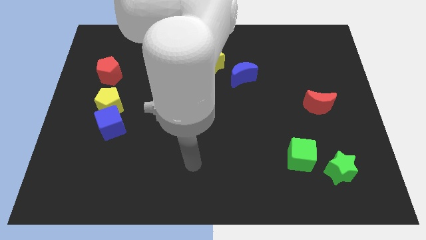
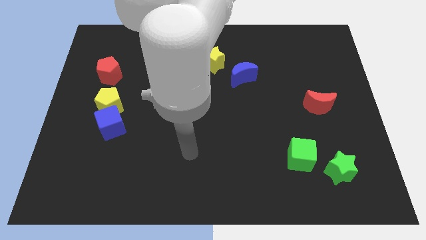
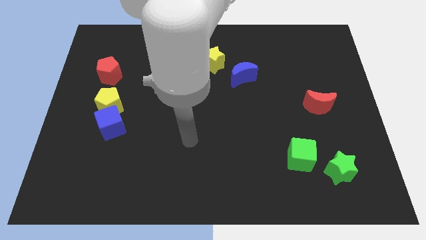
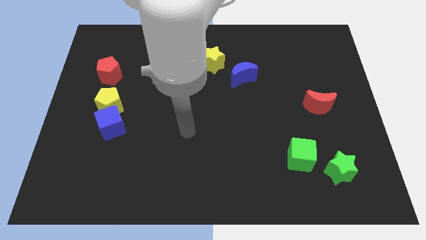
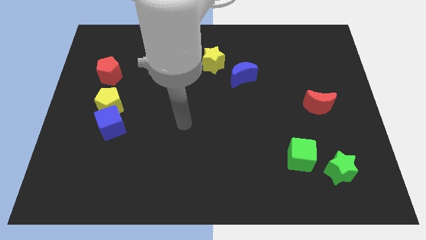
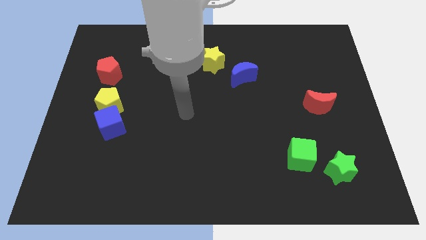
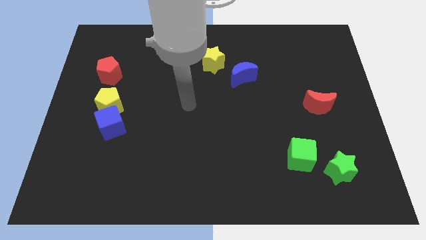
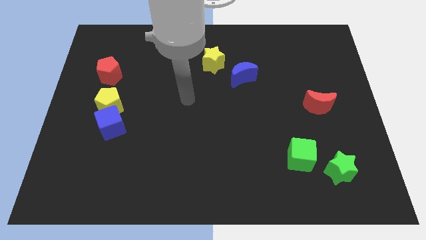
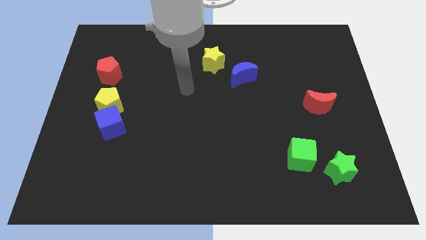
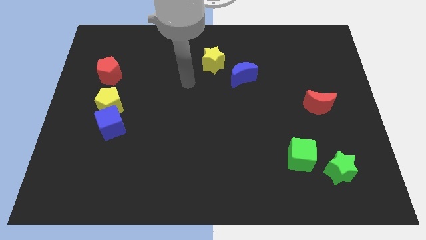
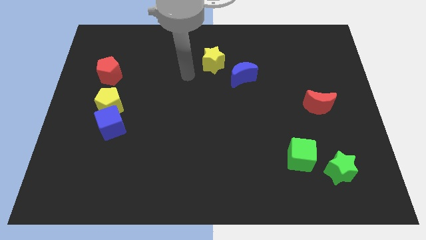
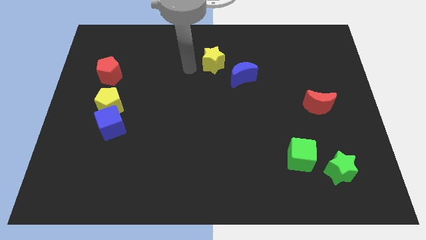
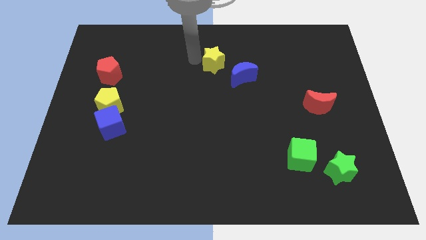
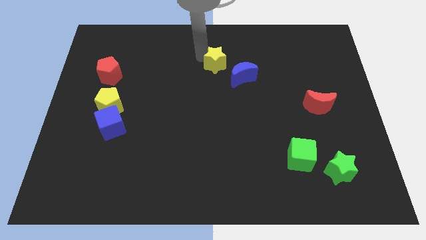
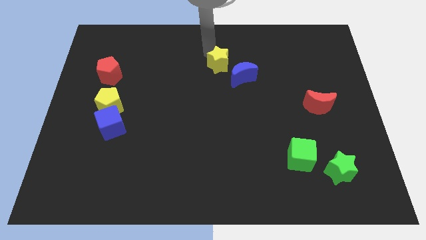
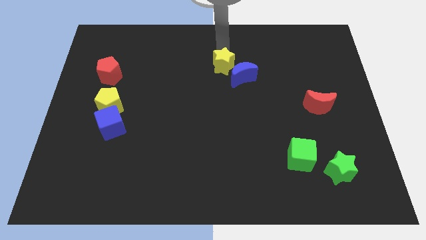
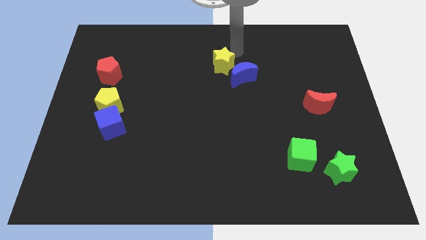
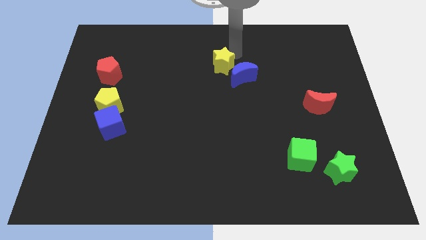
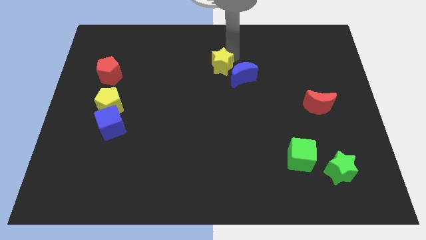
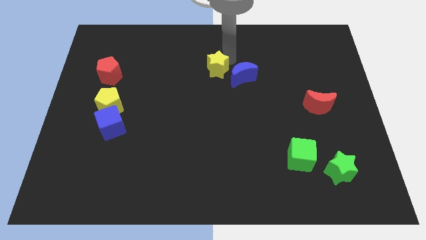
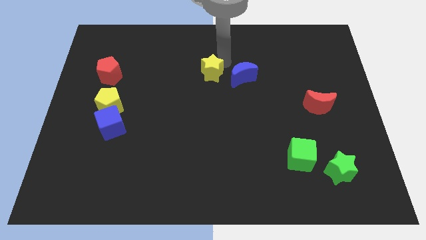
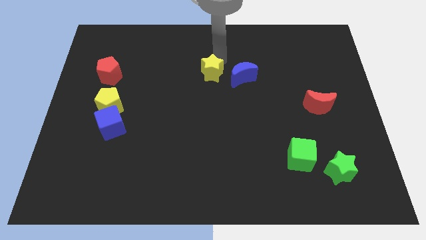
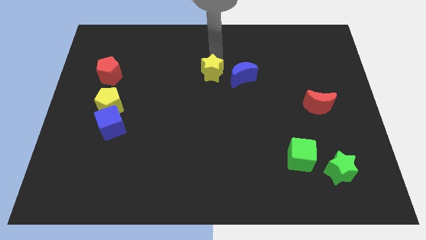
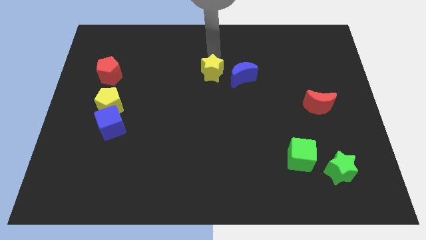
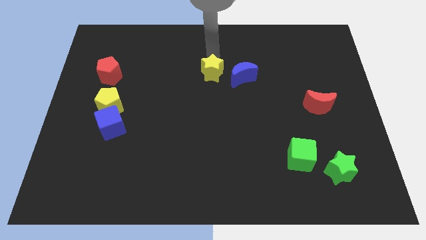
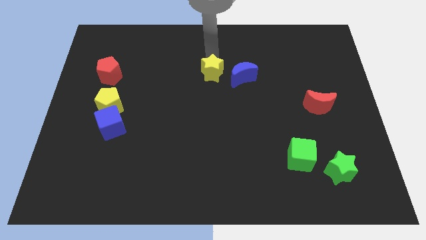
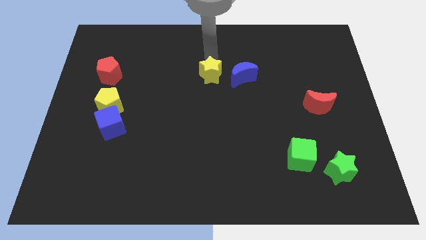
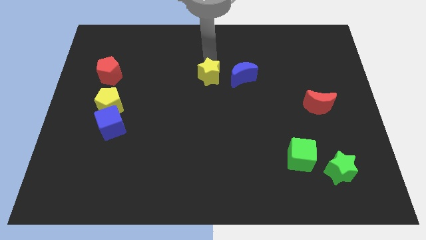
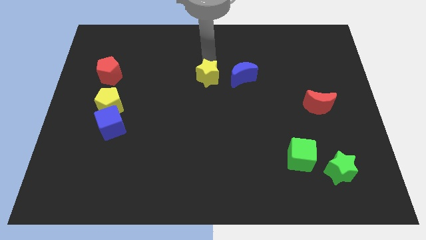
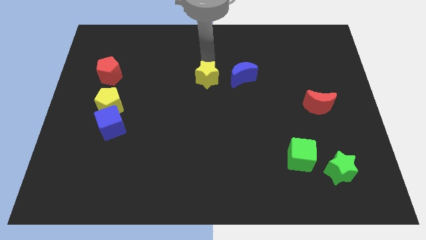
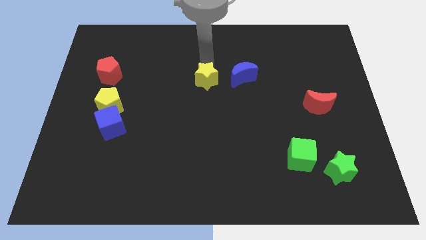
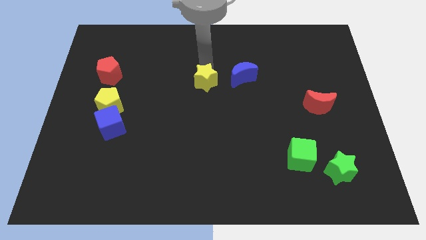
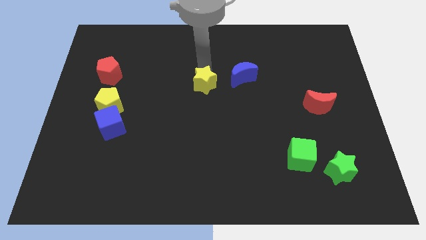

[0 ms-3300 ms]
slide the yellow star somewhat down

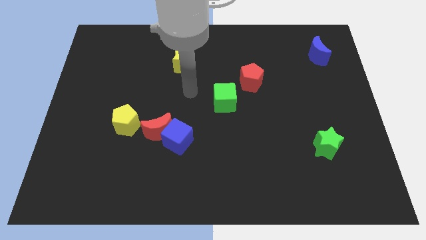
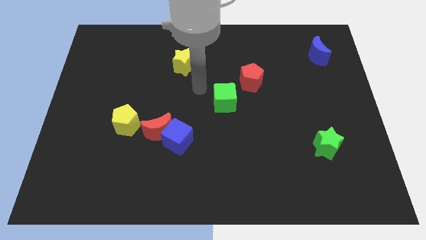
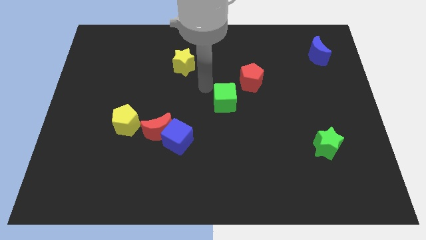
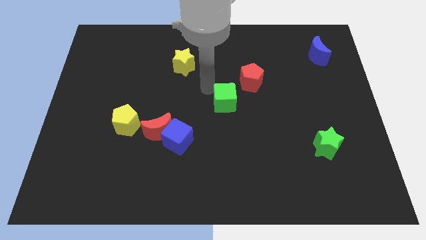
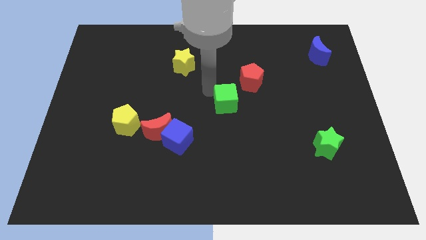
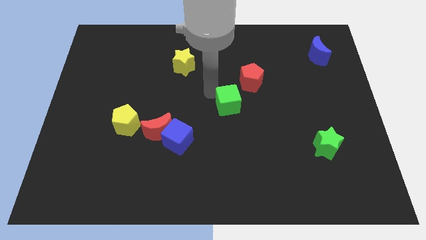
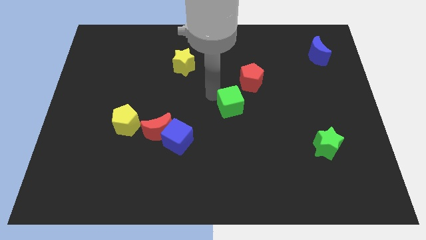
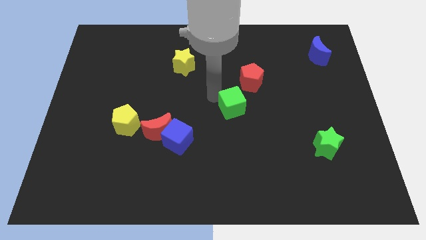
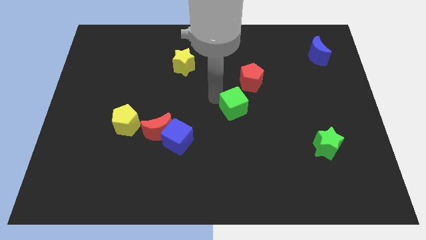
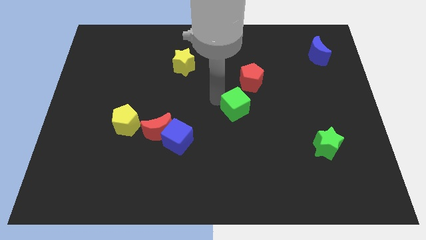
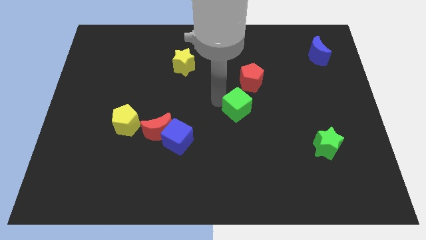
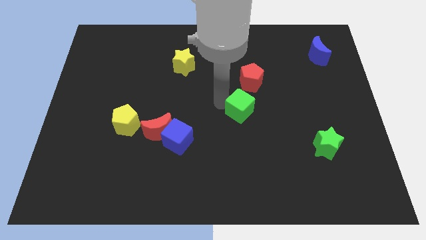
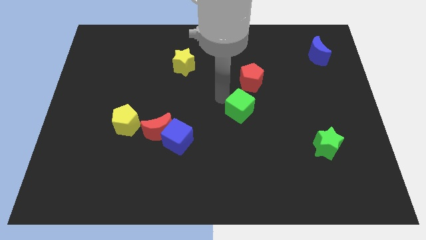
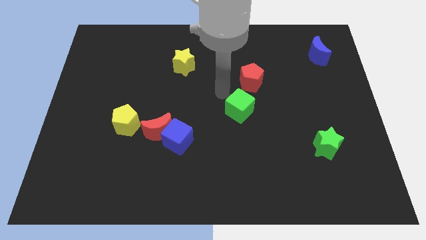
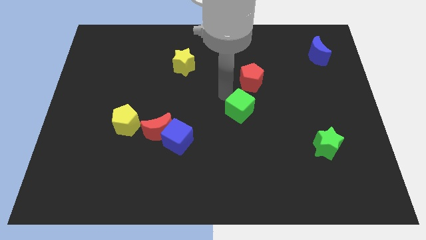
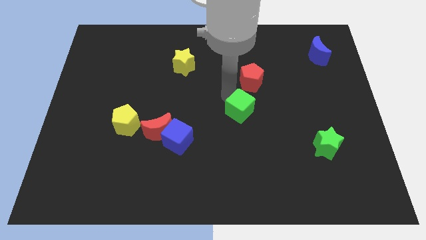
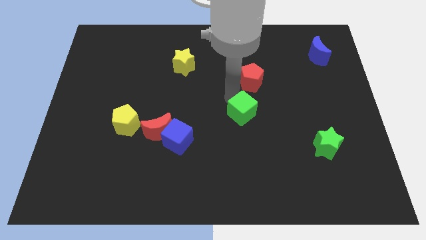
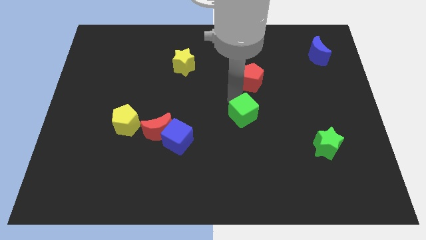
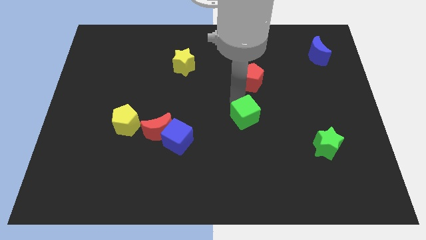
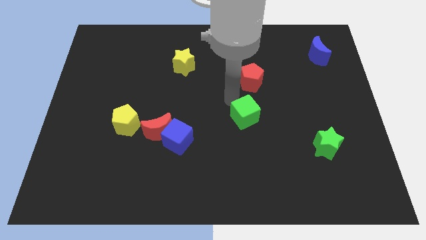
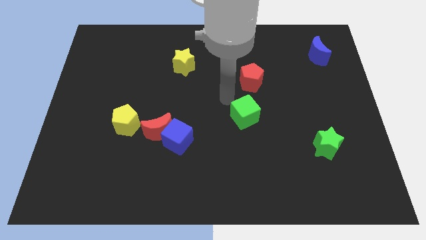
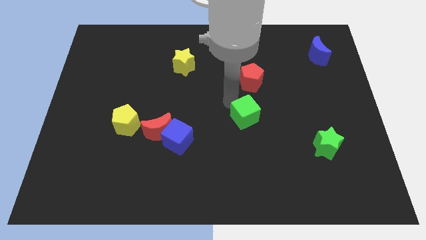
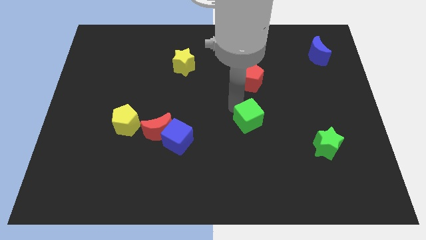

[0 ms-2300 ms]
slightly slide the green cube diagonally down and right

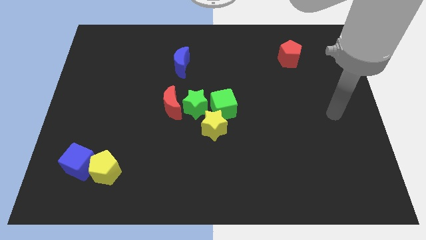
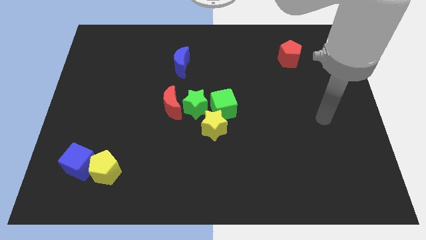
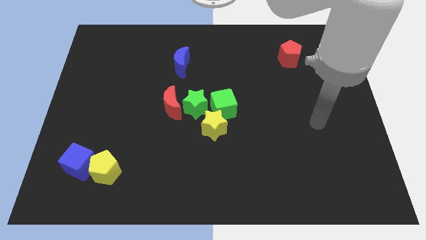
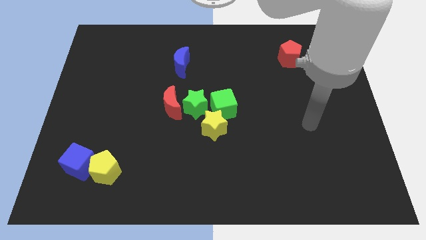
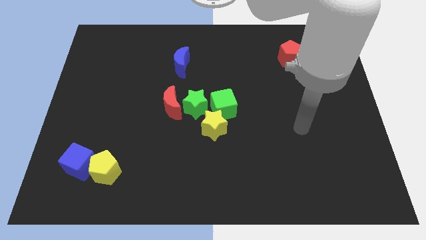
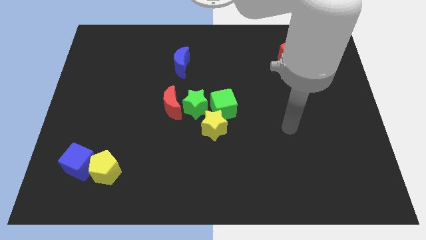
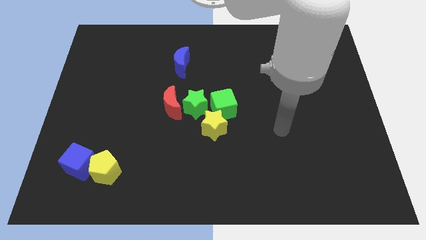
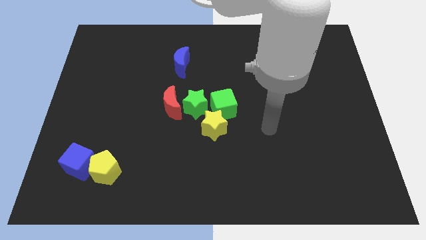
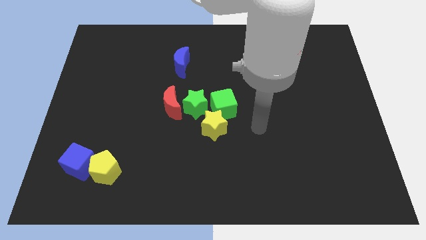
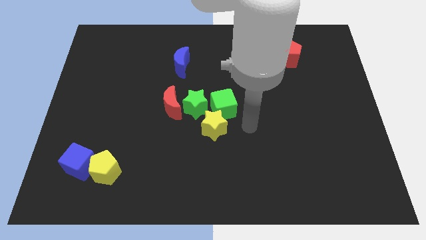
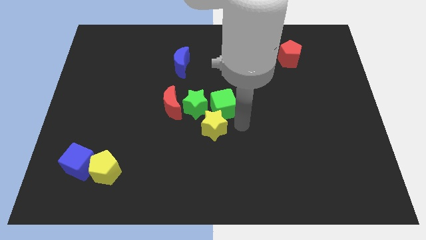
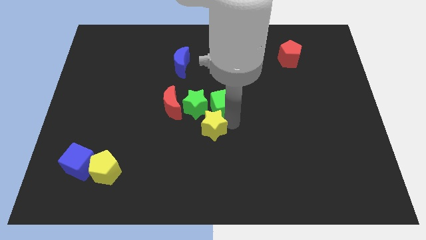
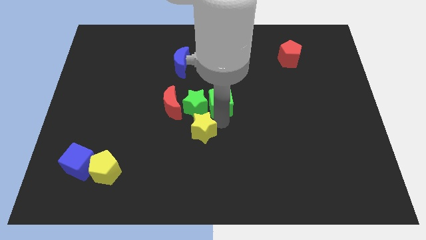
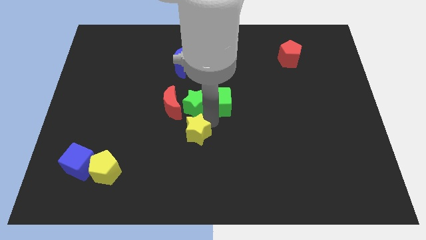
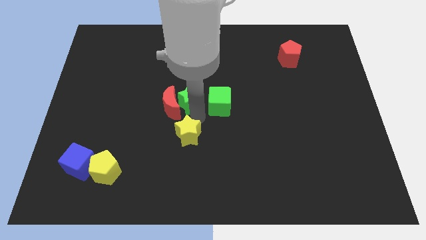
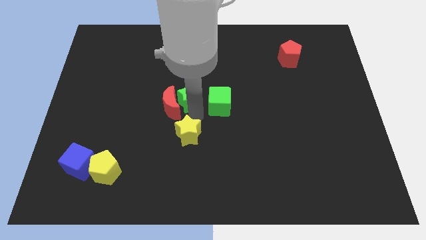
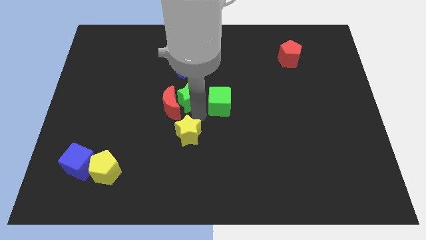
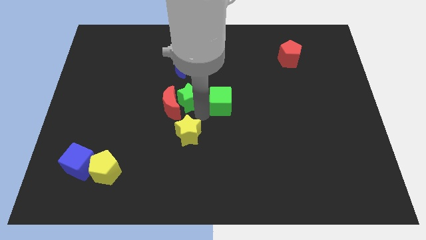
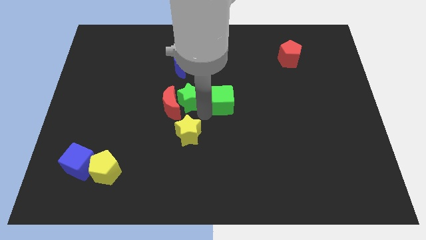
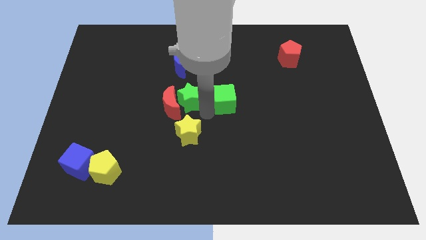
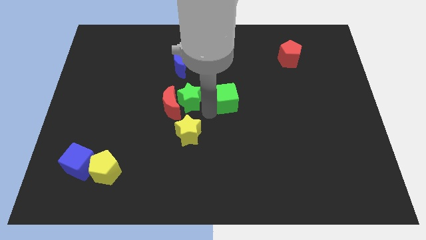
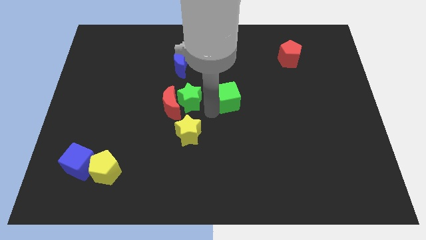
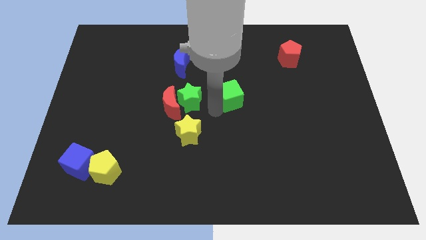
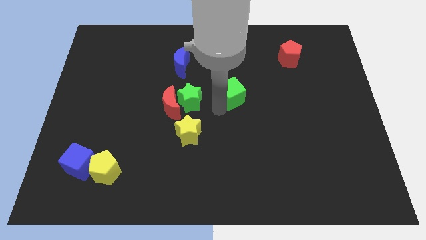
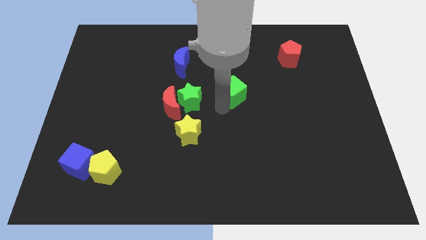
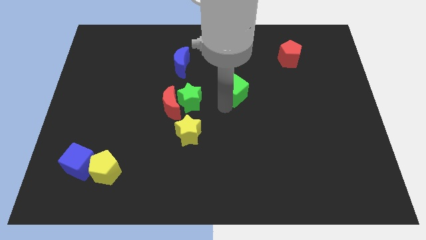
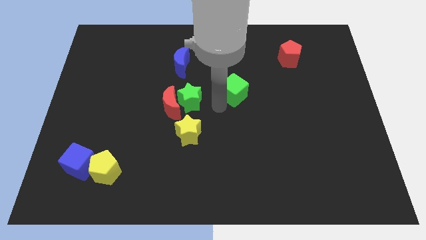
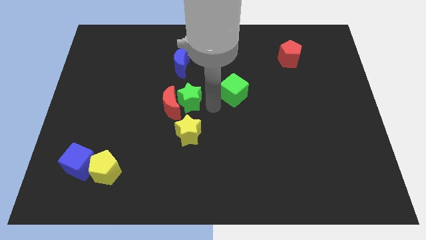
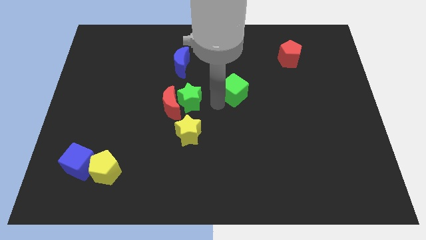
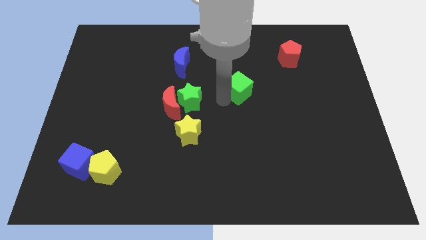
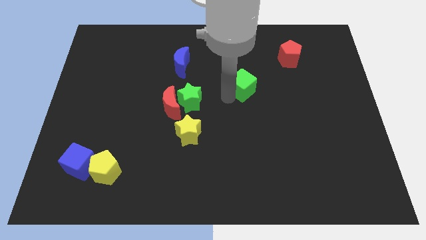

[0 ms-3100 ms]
move the green cube somewhat upwards and to the right diagonally
